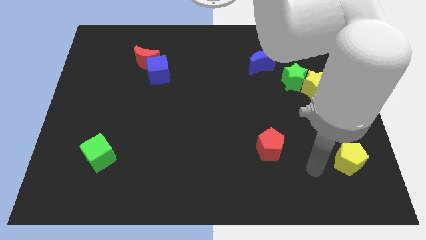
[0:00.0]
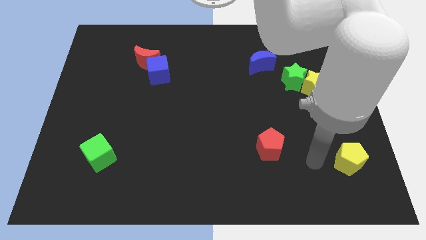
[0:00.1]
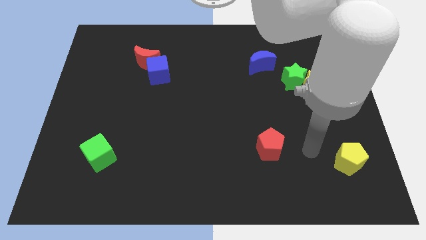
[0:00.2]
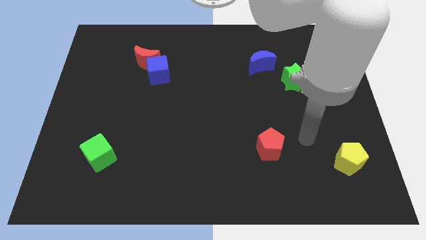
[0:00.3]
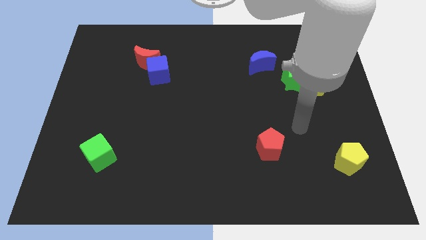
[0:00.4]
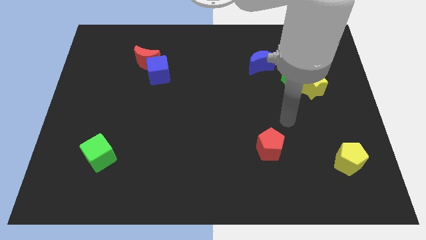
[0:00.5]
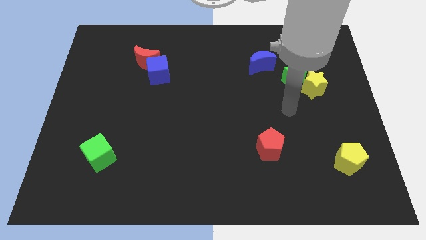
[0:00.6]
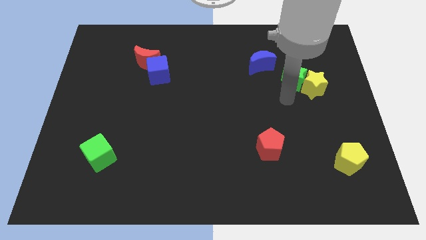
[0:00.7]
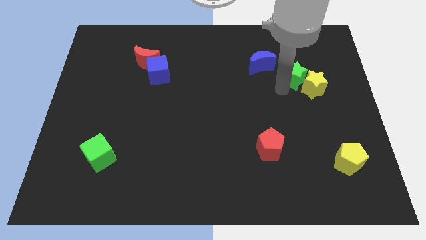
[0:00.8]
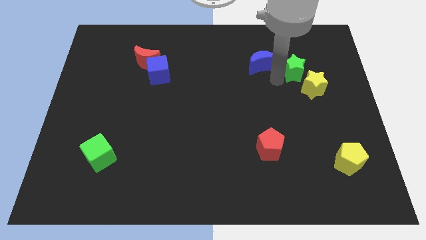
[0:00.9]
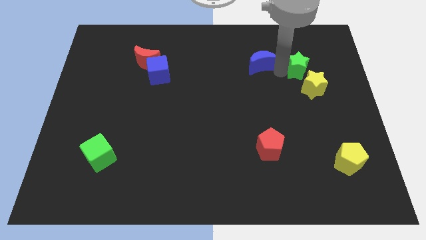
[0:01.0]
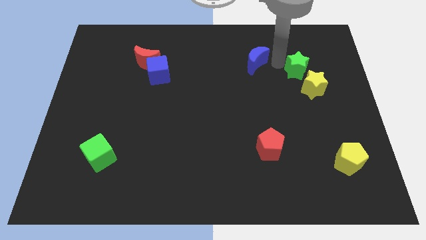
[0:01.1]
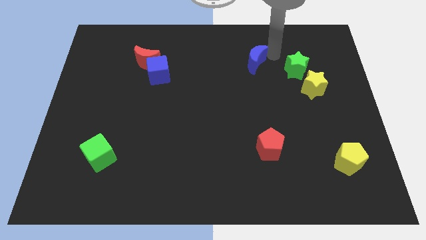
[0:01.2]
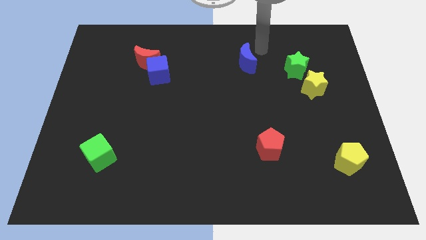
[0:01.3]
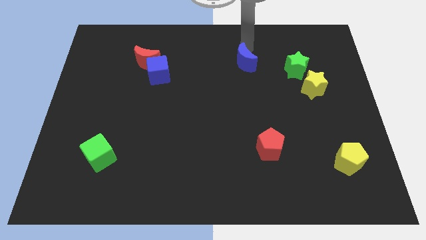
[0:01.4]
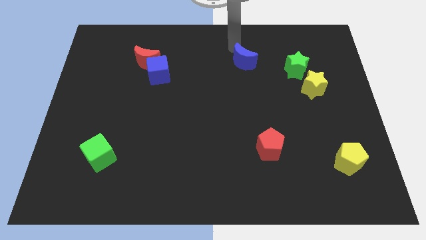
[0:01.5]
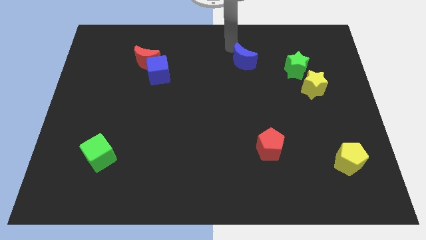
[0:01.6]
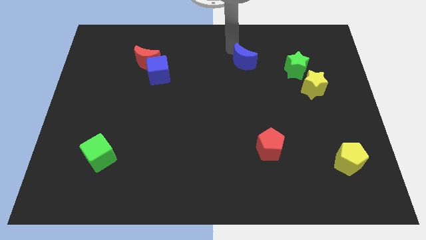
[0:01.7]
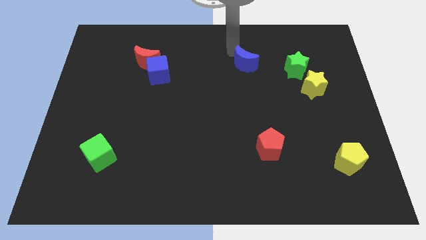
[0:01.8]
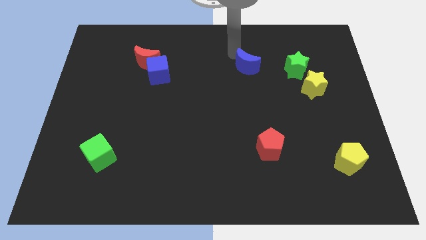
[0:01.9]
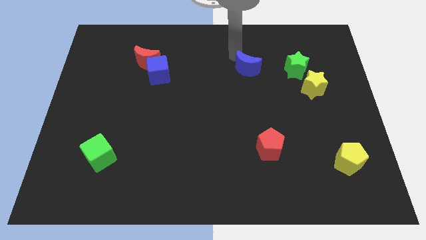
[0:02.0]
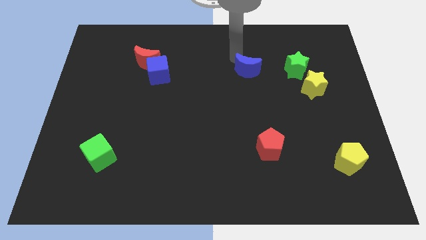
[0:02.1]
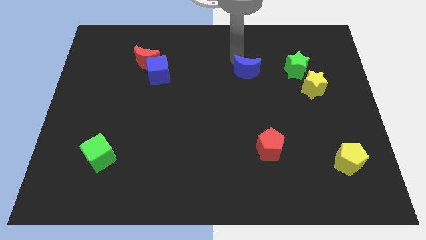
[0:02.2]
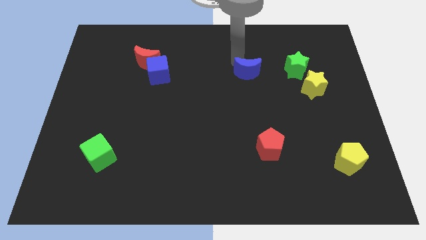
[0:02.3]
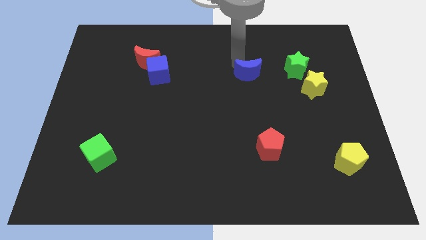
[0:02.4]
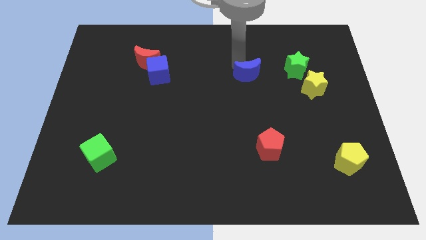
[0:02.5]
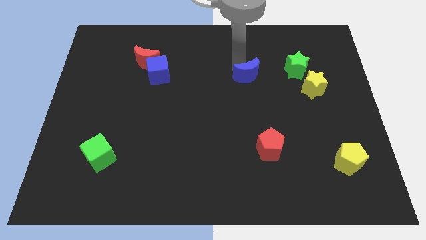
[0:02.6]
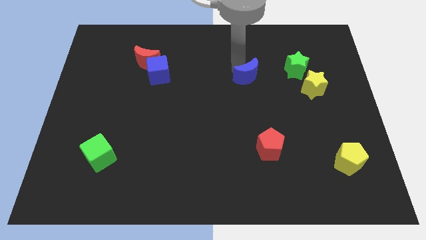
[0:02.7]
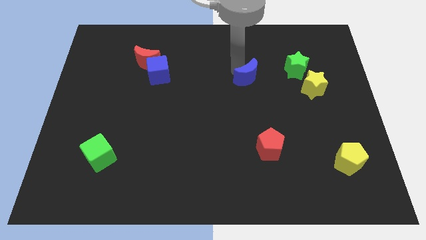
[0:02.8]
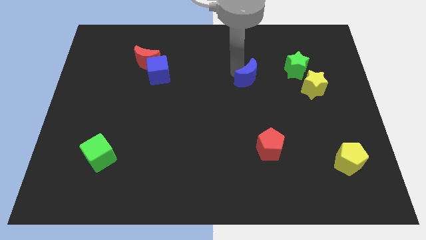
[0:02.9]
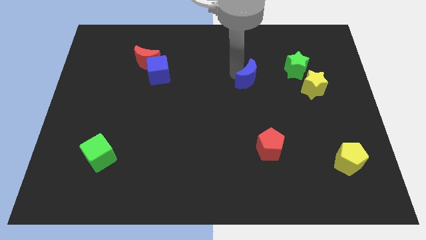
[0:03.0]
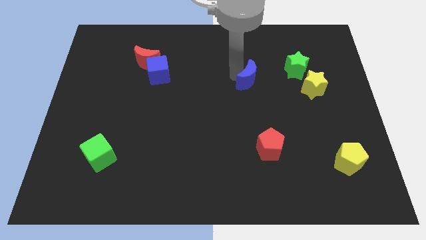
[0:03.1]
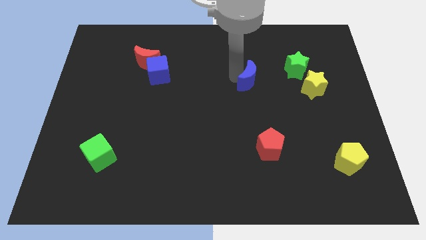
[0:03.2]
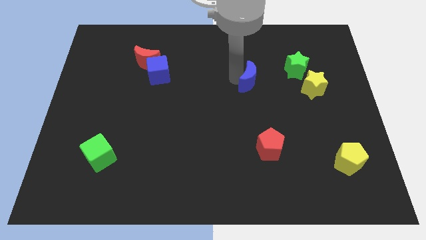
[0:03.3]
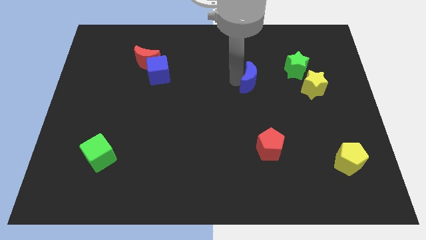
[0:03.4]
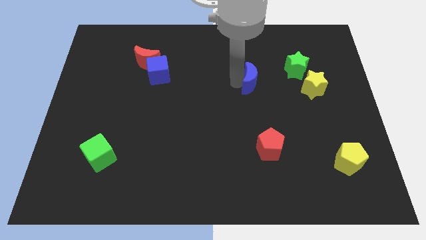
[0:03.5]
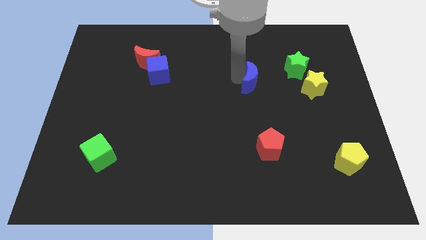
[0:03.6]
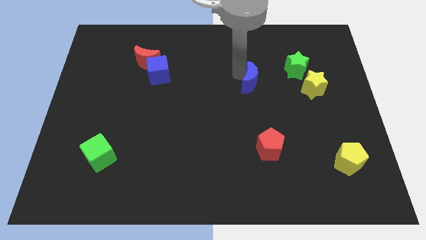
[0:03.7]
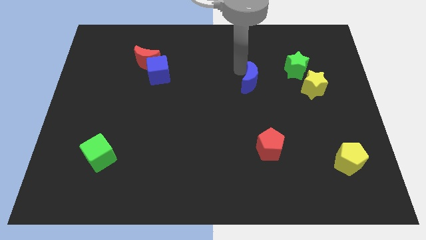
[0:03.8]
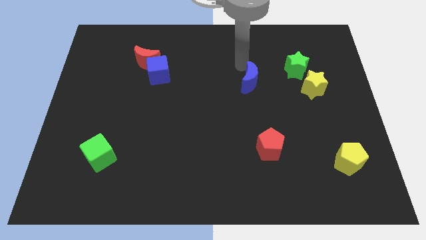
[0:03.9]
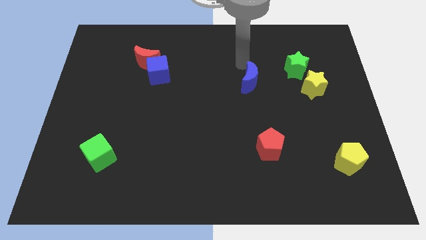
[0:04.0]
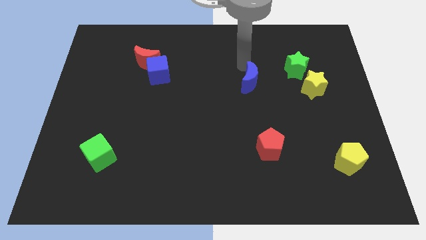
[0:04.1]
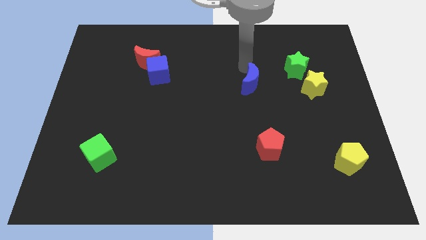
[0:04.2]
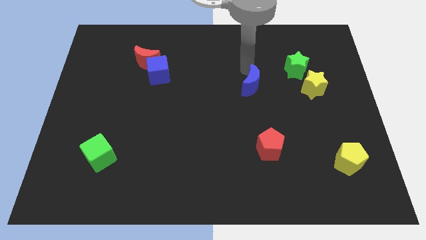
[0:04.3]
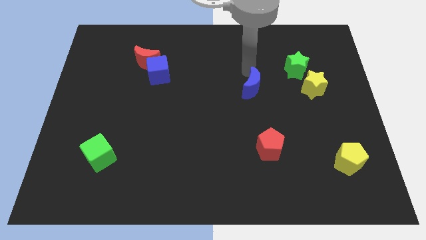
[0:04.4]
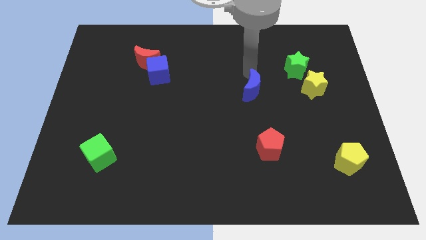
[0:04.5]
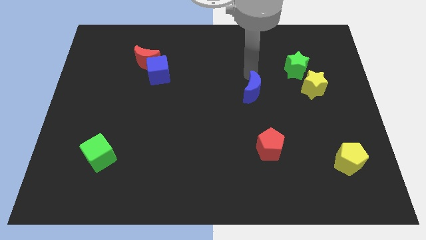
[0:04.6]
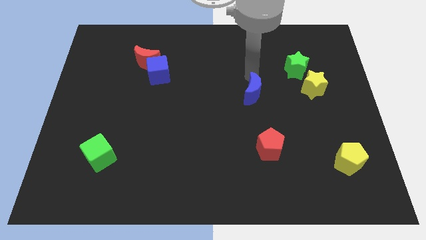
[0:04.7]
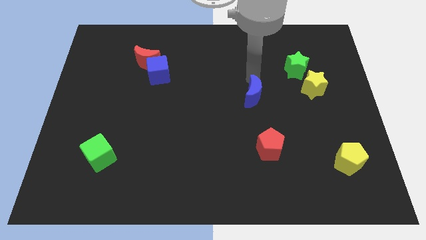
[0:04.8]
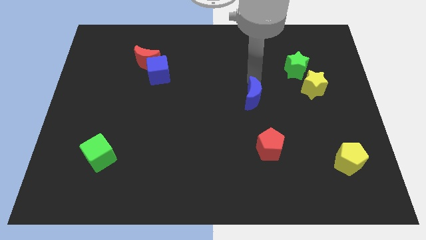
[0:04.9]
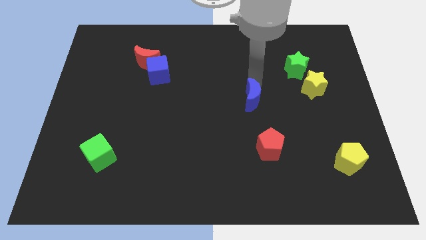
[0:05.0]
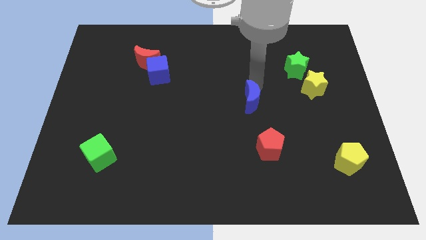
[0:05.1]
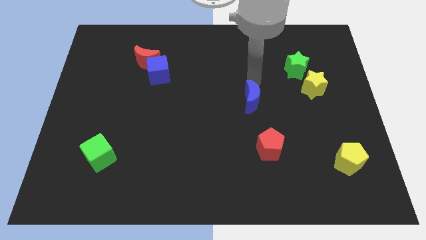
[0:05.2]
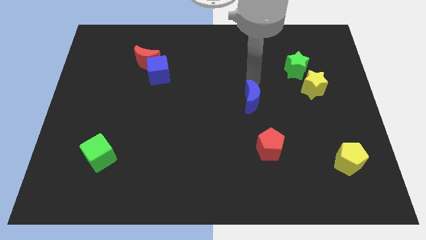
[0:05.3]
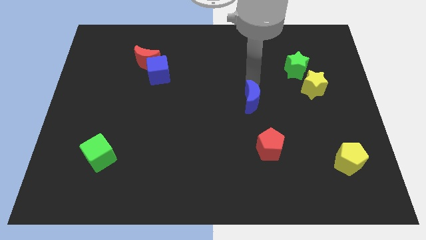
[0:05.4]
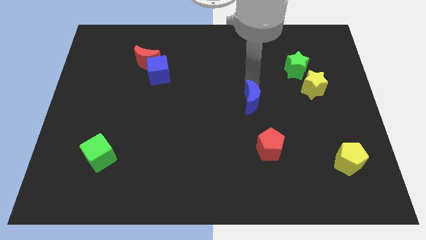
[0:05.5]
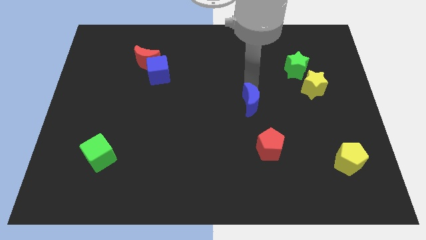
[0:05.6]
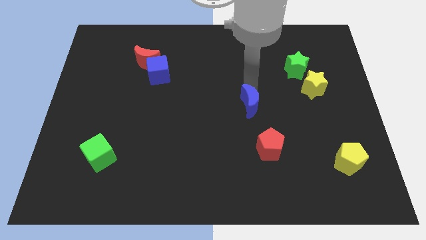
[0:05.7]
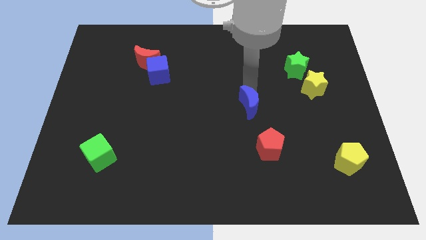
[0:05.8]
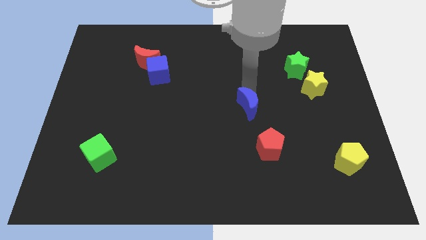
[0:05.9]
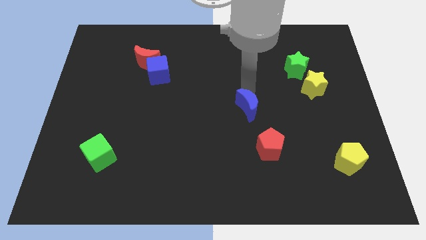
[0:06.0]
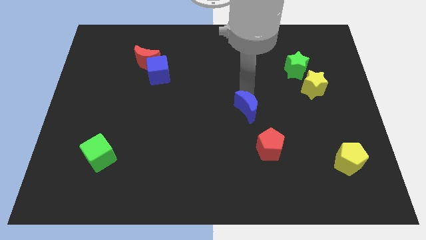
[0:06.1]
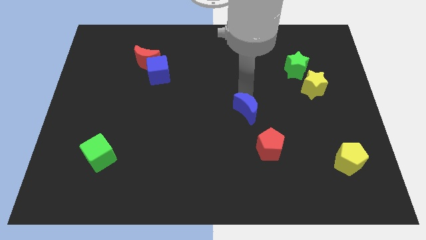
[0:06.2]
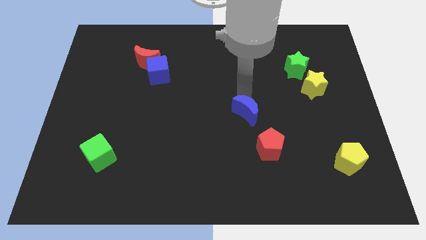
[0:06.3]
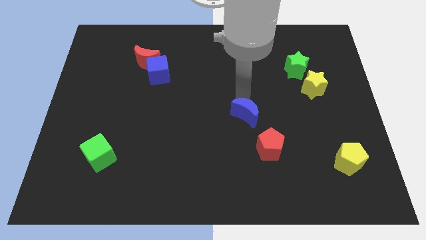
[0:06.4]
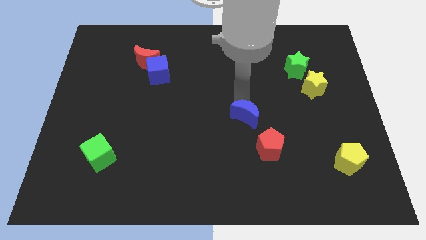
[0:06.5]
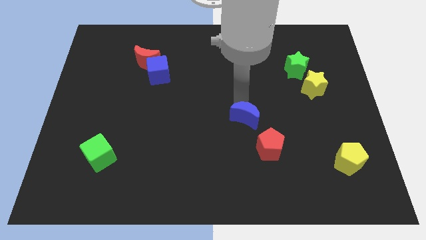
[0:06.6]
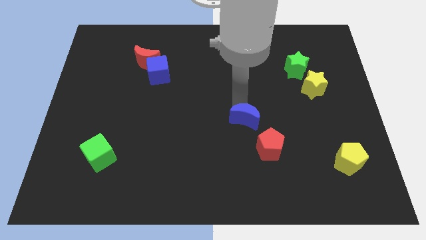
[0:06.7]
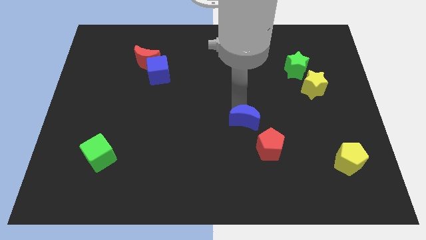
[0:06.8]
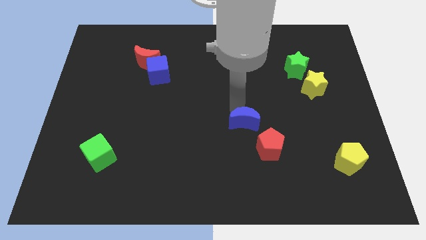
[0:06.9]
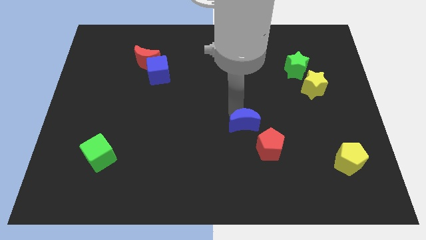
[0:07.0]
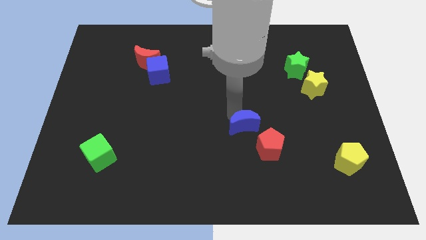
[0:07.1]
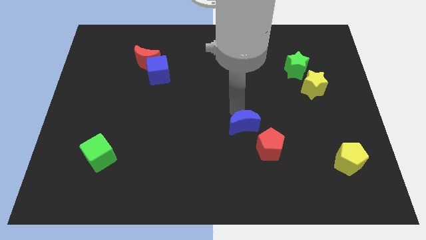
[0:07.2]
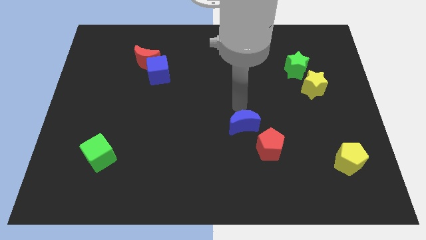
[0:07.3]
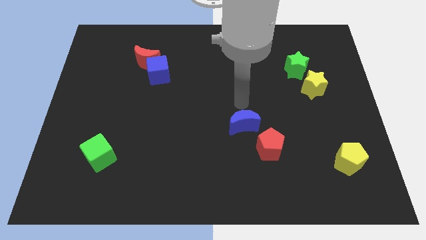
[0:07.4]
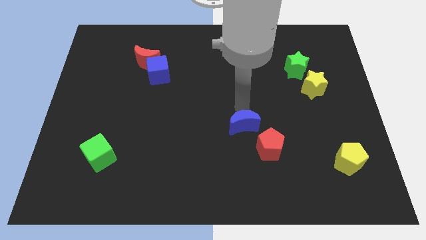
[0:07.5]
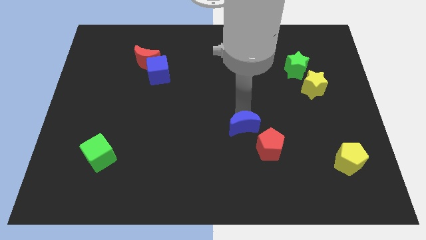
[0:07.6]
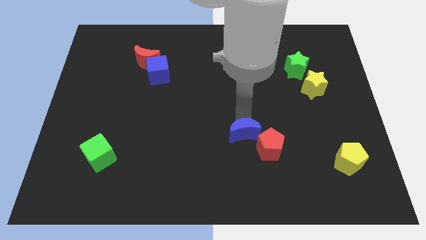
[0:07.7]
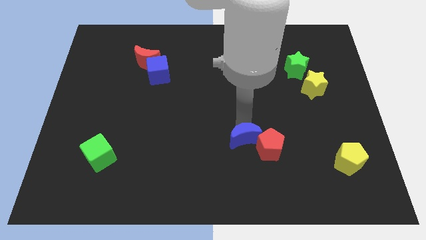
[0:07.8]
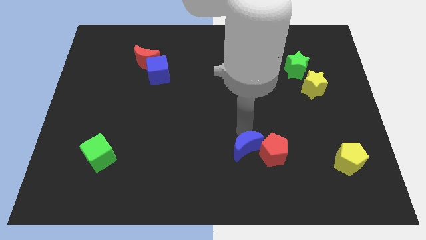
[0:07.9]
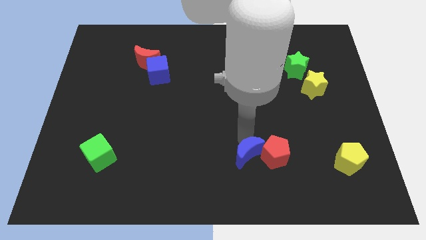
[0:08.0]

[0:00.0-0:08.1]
slide the blue moon diagonally down and to the left of the red pentagon
